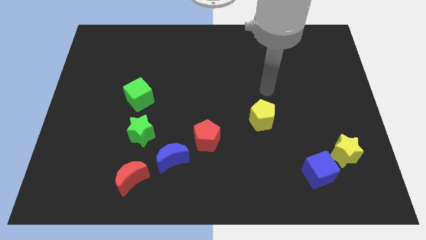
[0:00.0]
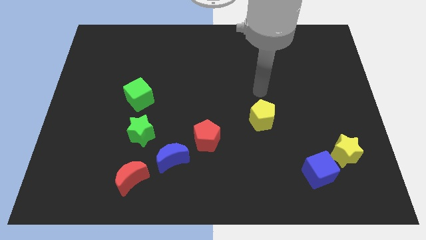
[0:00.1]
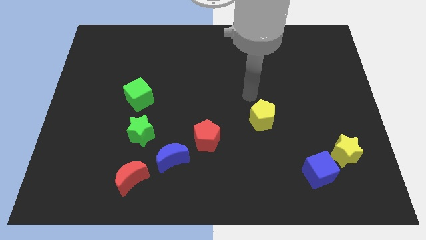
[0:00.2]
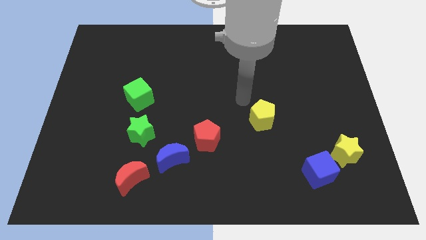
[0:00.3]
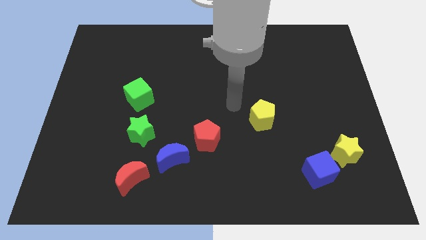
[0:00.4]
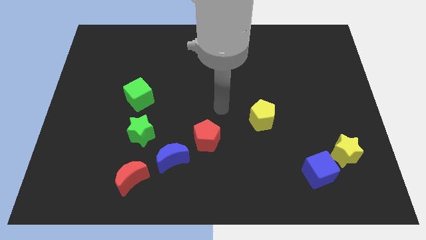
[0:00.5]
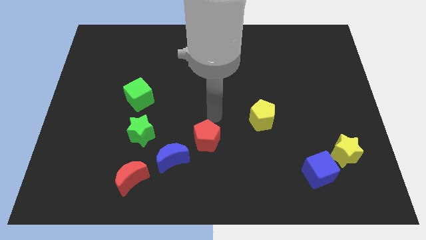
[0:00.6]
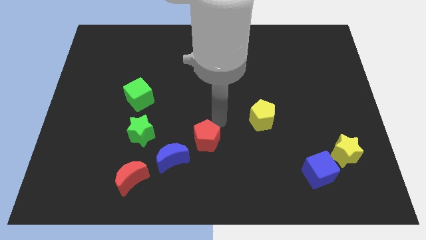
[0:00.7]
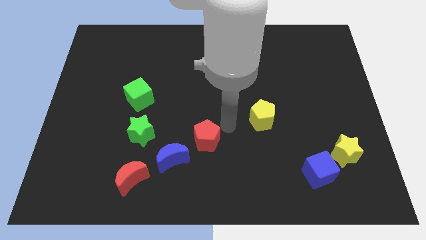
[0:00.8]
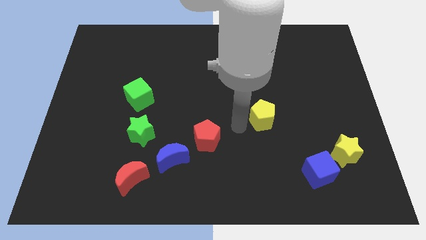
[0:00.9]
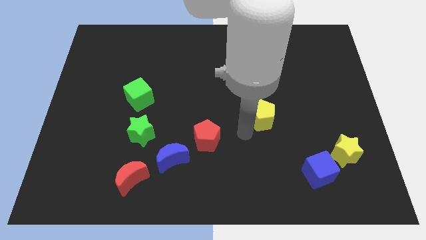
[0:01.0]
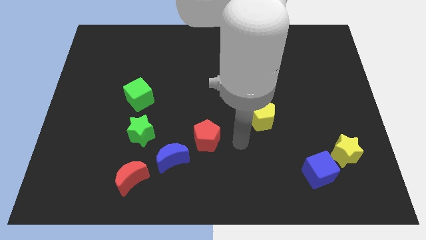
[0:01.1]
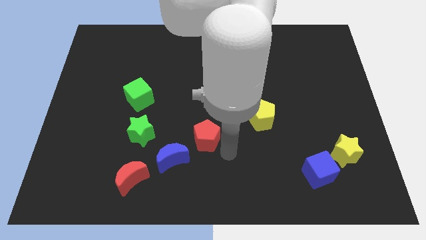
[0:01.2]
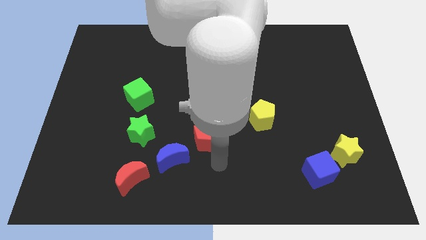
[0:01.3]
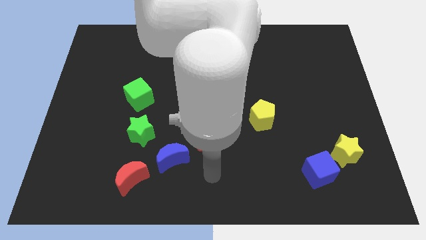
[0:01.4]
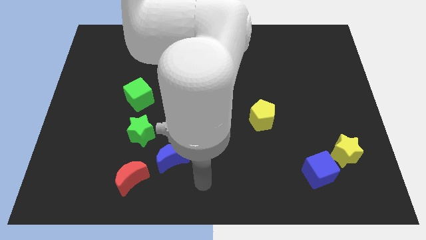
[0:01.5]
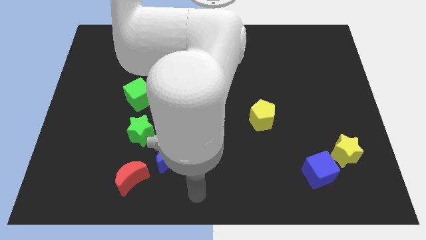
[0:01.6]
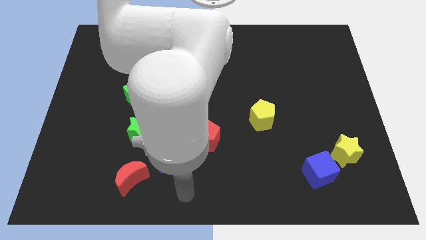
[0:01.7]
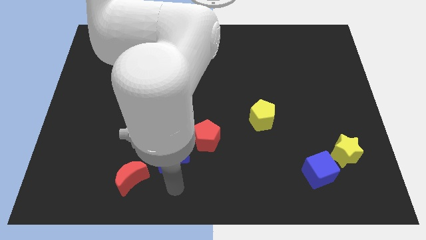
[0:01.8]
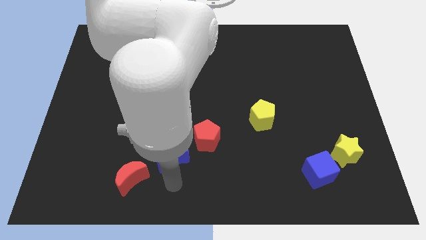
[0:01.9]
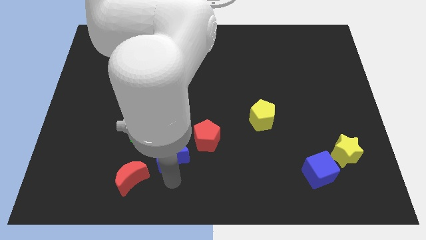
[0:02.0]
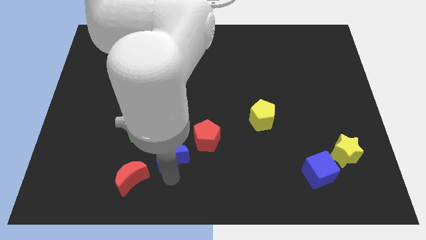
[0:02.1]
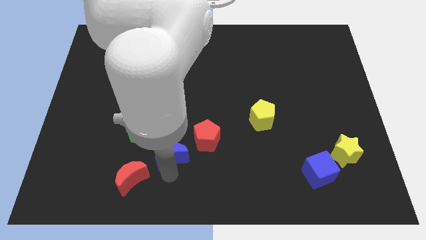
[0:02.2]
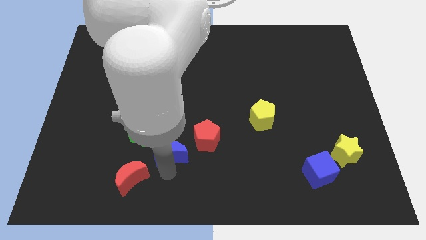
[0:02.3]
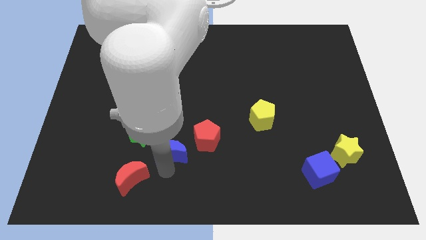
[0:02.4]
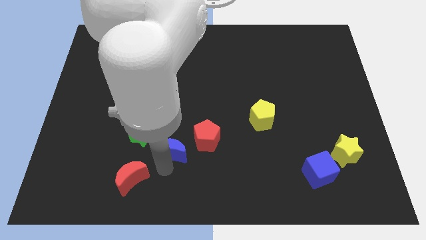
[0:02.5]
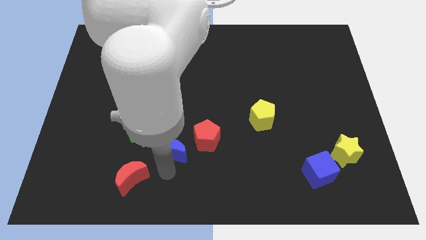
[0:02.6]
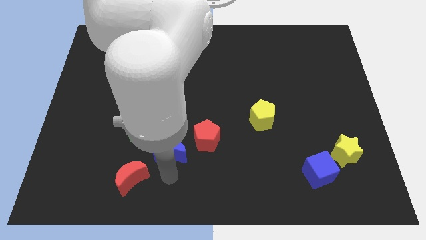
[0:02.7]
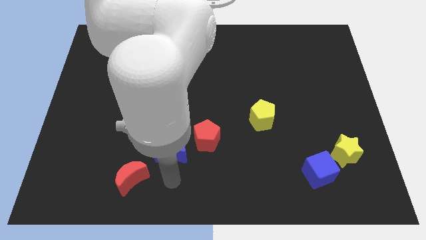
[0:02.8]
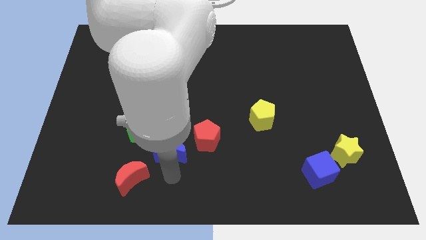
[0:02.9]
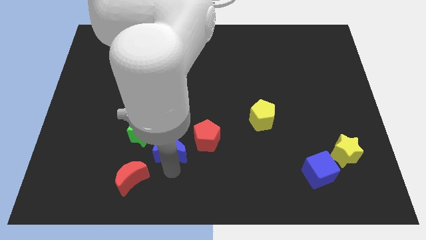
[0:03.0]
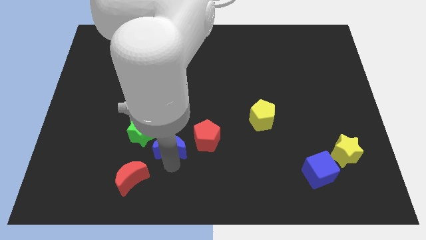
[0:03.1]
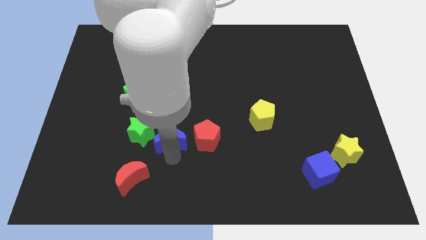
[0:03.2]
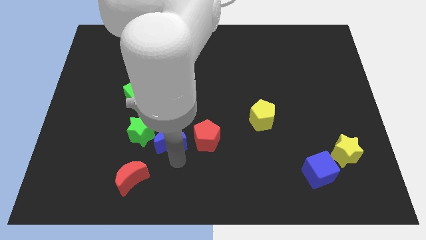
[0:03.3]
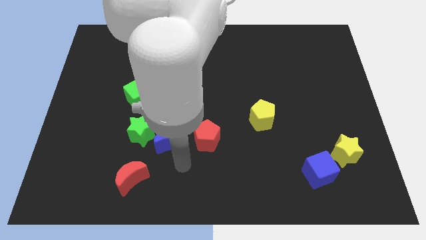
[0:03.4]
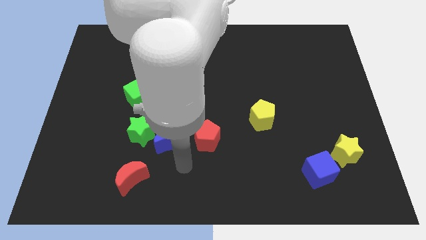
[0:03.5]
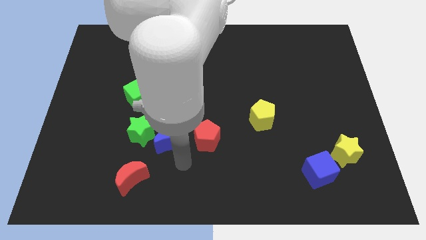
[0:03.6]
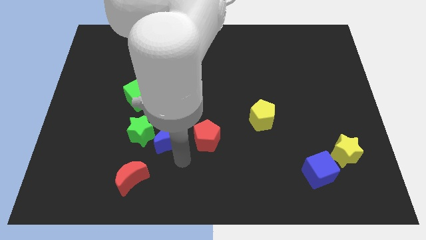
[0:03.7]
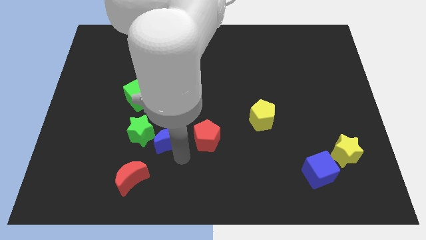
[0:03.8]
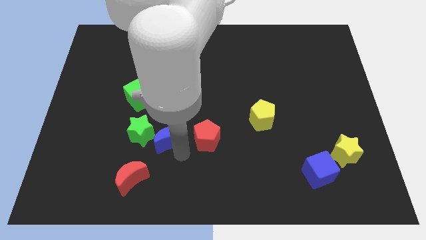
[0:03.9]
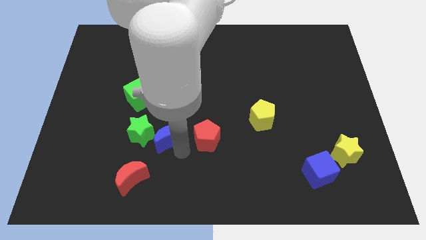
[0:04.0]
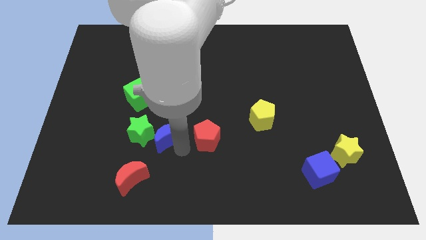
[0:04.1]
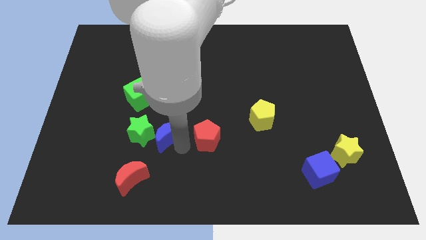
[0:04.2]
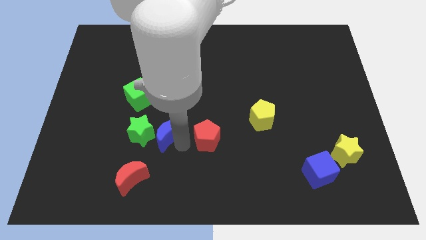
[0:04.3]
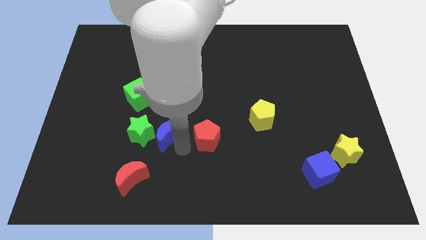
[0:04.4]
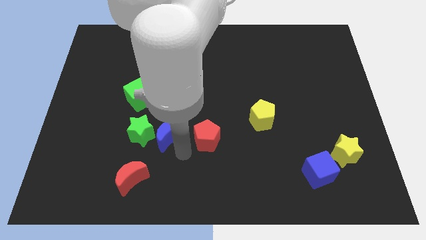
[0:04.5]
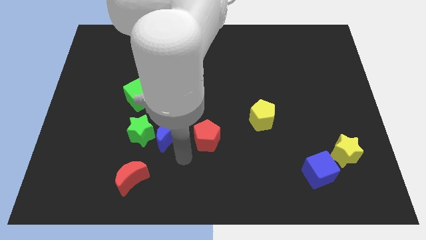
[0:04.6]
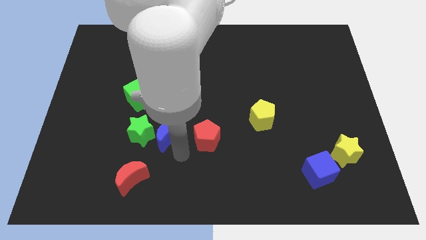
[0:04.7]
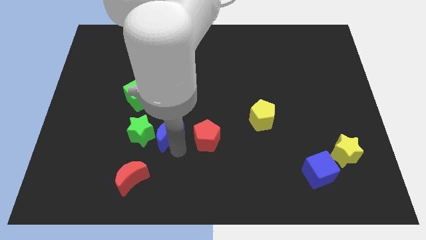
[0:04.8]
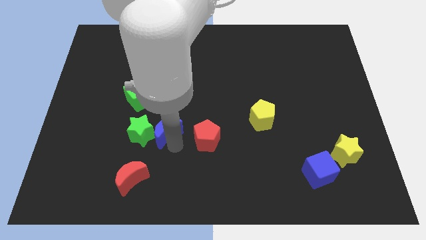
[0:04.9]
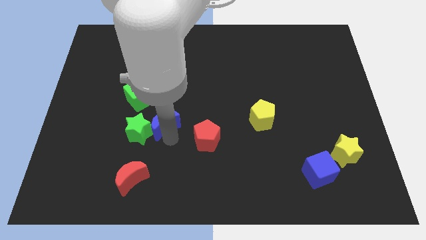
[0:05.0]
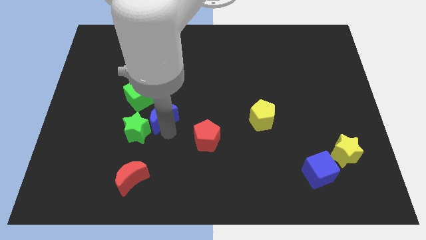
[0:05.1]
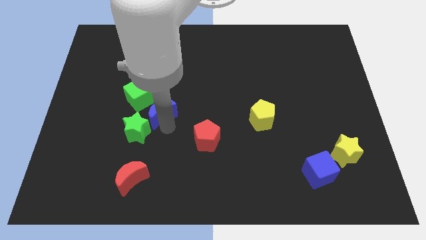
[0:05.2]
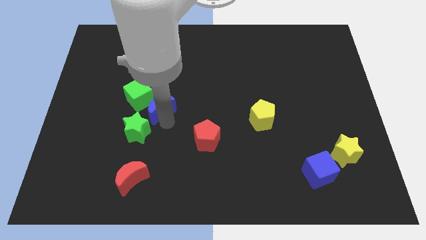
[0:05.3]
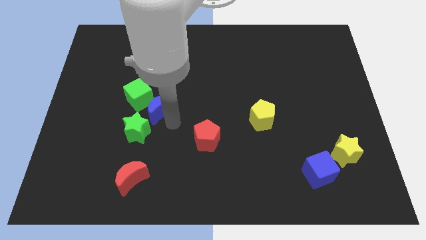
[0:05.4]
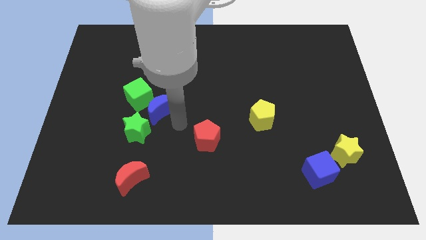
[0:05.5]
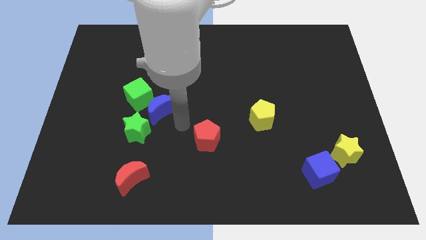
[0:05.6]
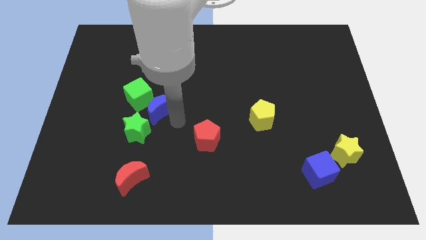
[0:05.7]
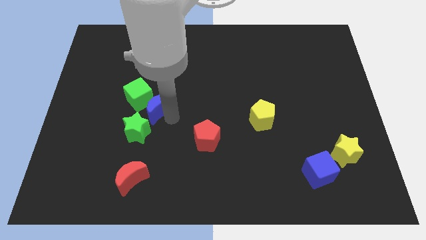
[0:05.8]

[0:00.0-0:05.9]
slide the blue moon towards the green cube

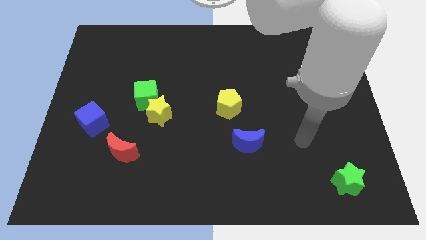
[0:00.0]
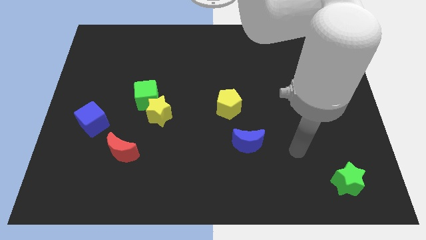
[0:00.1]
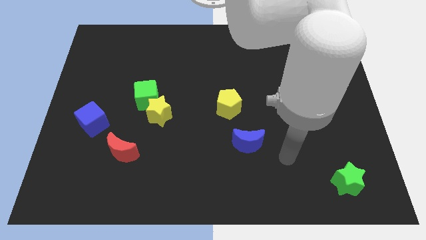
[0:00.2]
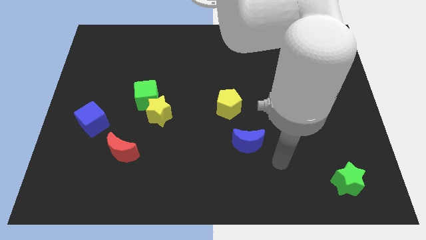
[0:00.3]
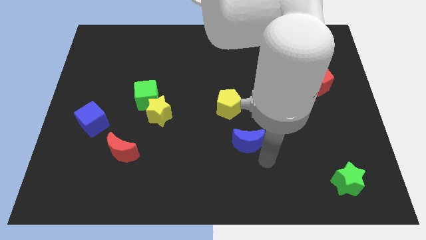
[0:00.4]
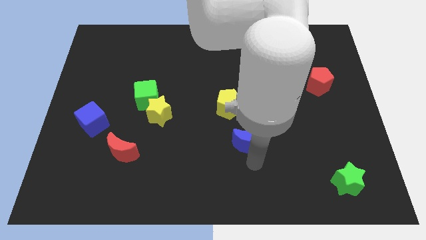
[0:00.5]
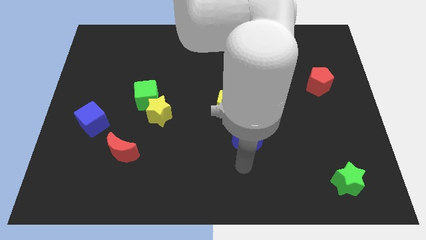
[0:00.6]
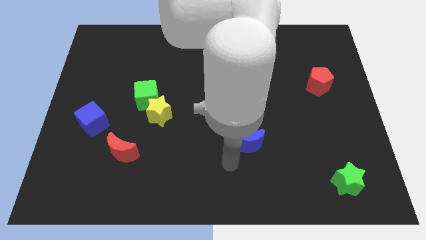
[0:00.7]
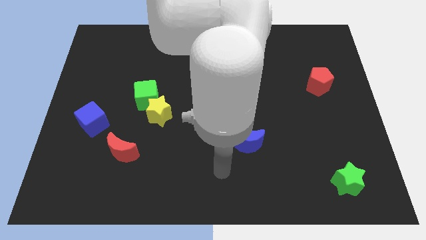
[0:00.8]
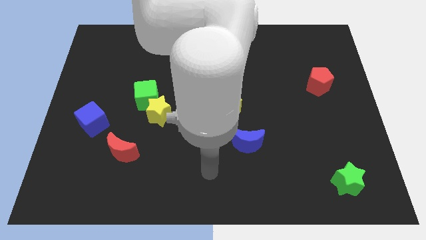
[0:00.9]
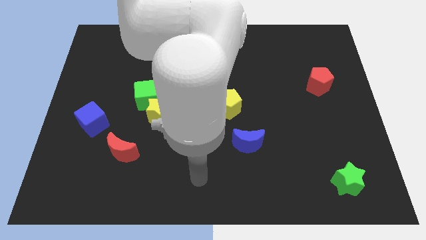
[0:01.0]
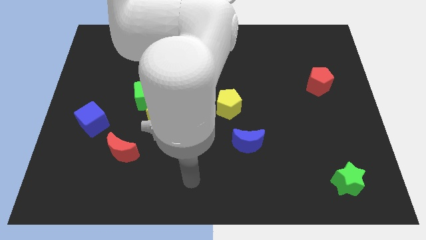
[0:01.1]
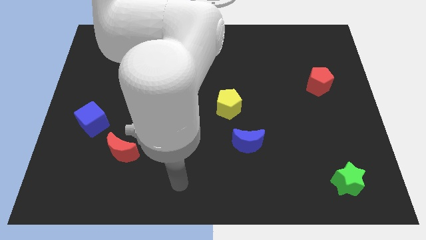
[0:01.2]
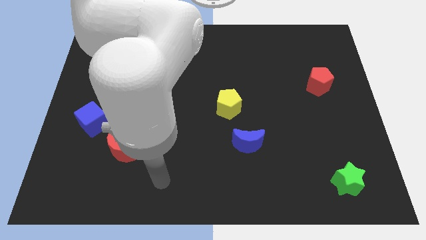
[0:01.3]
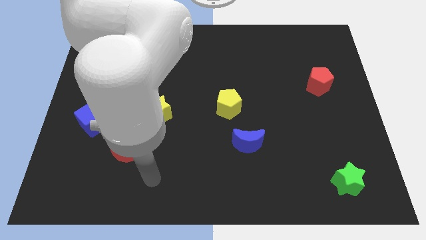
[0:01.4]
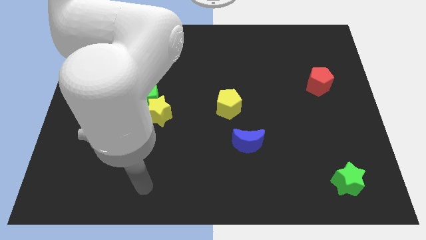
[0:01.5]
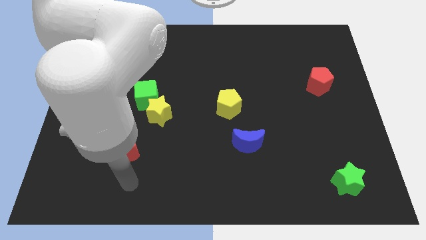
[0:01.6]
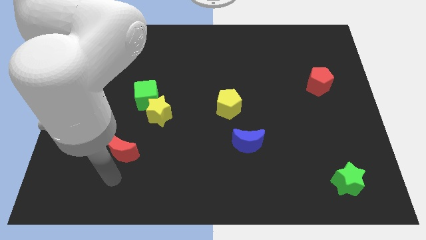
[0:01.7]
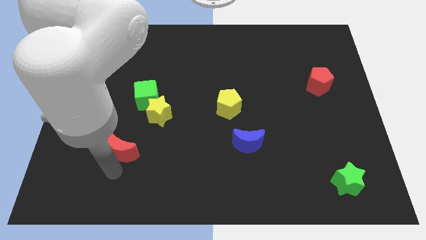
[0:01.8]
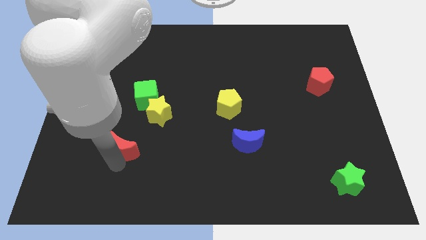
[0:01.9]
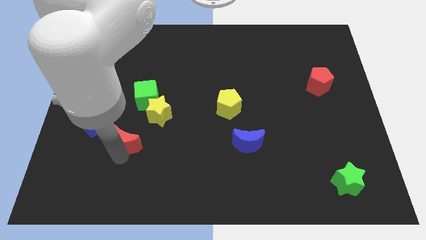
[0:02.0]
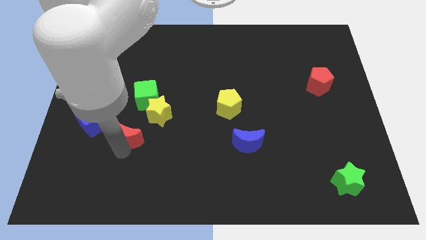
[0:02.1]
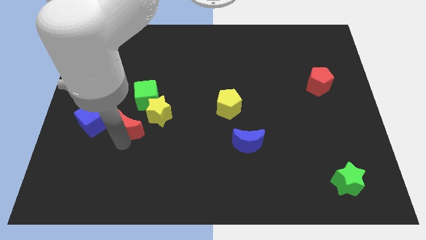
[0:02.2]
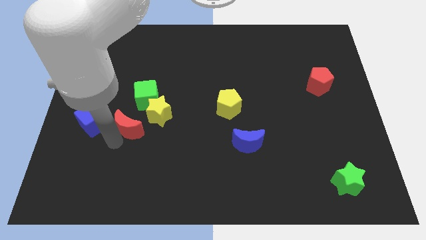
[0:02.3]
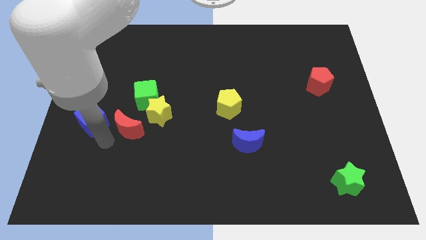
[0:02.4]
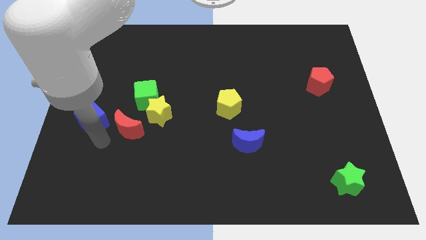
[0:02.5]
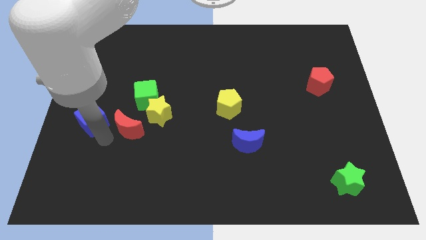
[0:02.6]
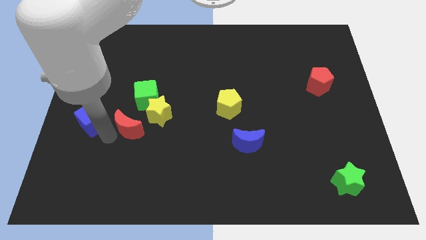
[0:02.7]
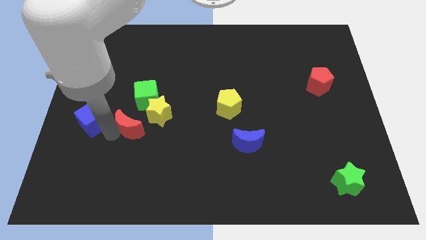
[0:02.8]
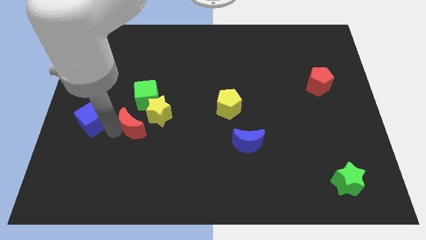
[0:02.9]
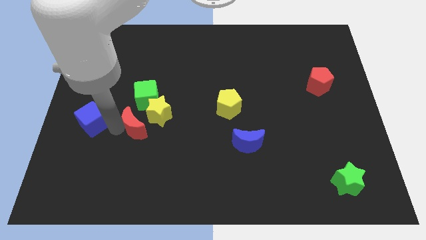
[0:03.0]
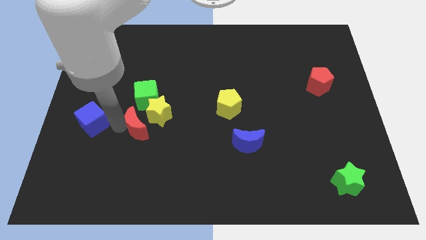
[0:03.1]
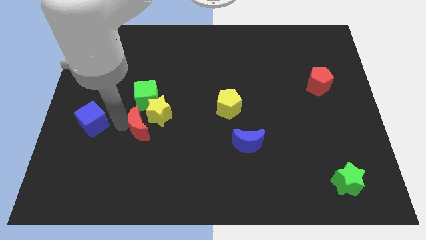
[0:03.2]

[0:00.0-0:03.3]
move the red moon close to the yellow star
